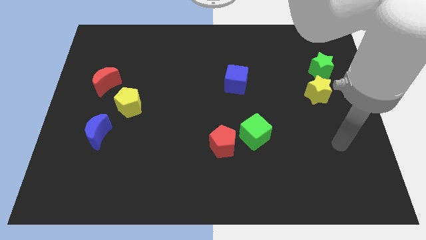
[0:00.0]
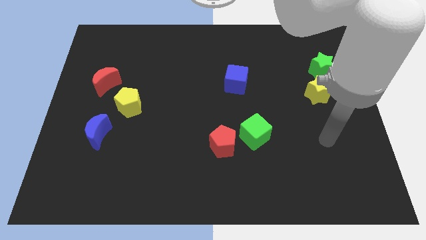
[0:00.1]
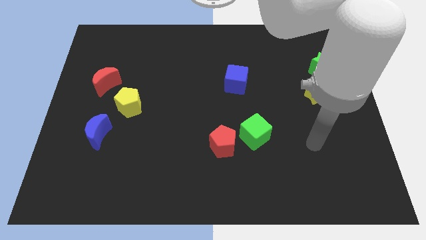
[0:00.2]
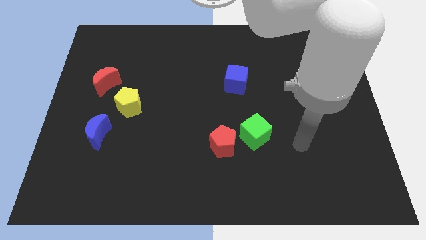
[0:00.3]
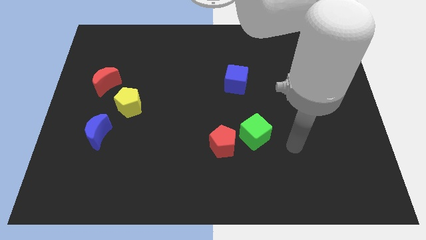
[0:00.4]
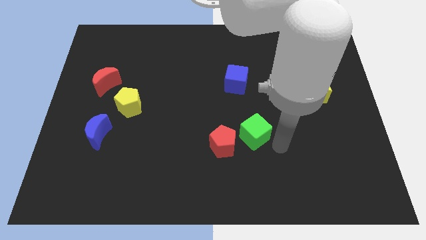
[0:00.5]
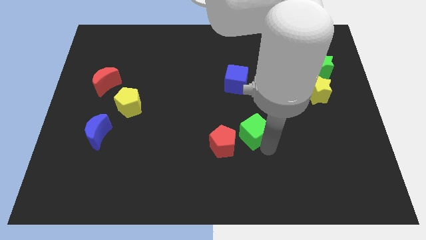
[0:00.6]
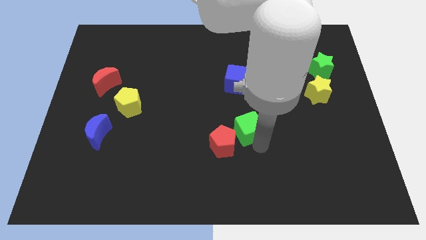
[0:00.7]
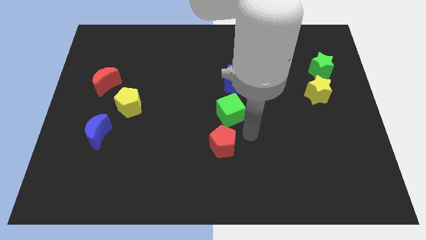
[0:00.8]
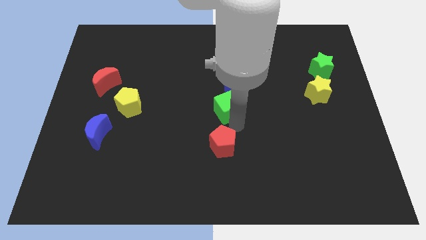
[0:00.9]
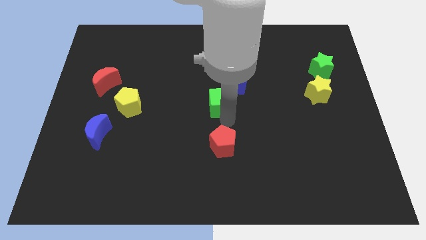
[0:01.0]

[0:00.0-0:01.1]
move the red pentagon away from the green cube

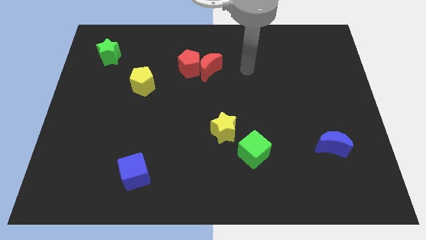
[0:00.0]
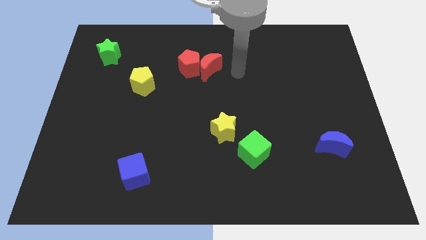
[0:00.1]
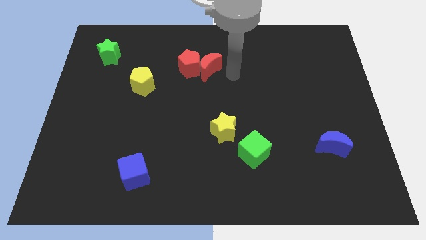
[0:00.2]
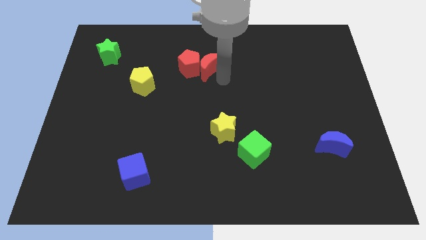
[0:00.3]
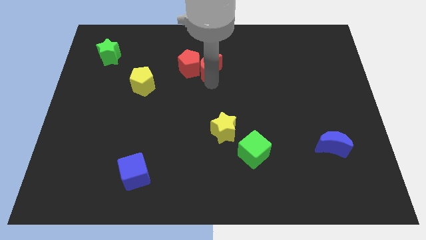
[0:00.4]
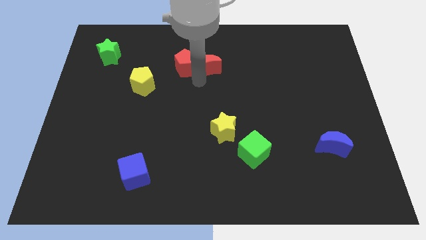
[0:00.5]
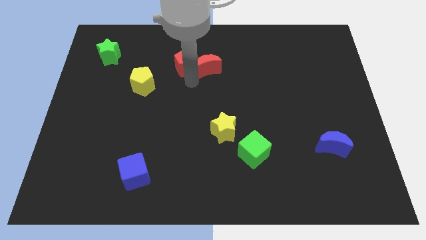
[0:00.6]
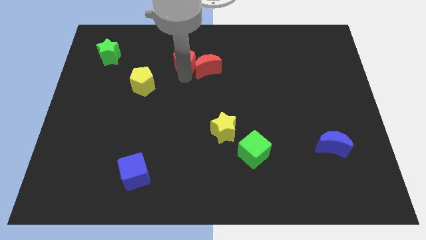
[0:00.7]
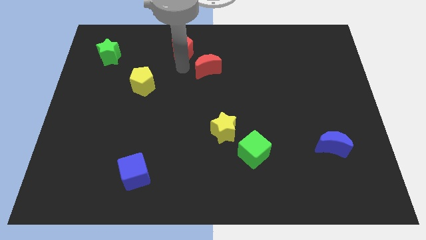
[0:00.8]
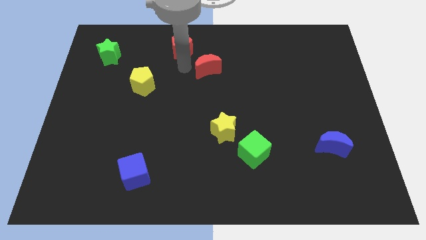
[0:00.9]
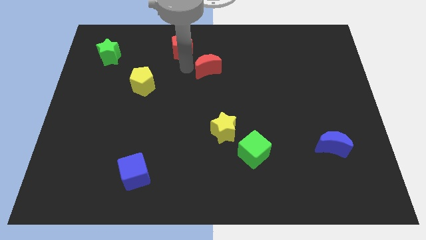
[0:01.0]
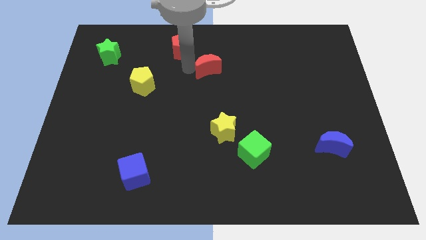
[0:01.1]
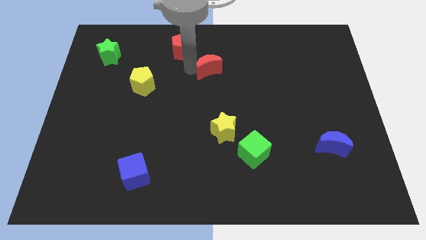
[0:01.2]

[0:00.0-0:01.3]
pull the red moon apart from the red pentagon

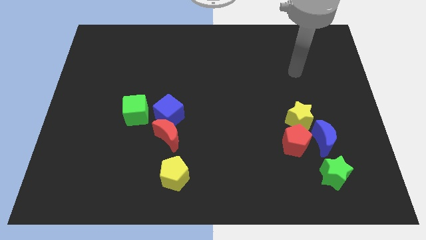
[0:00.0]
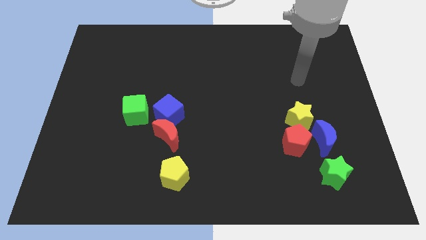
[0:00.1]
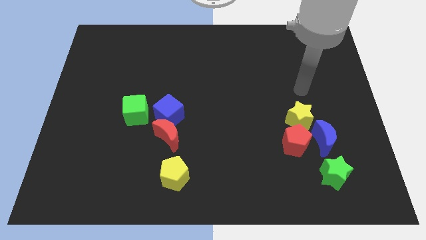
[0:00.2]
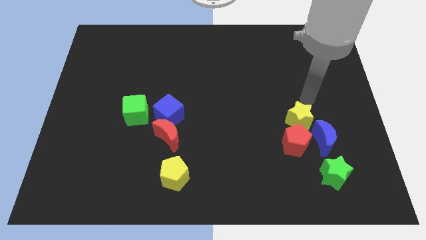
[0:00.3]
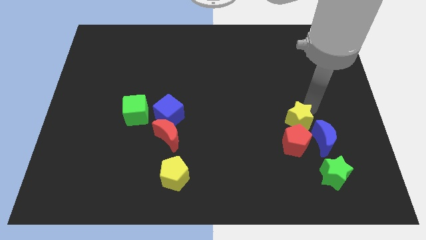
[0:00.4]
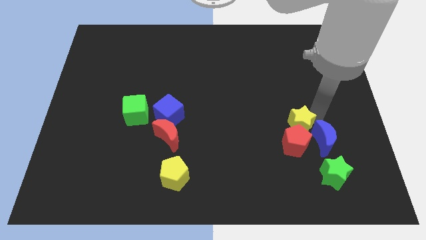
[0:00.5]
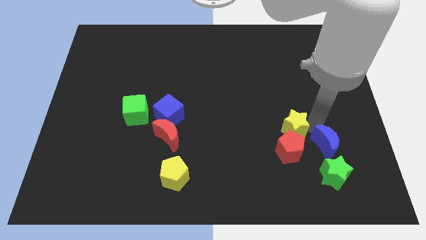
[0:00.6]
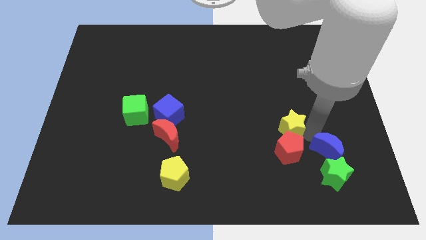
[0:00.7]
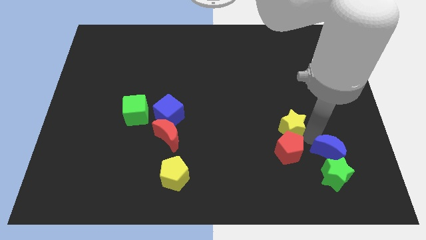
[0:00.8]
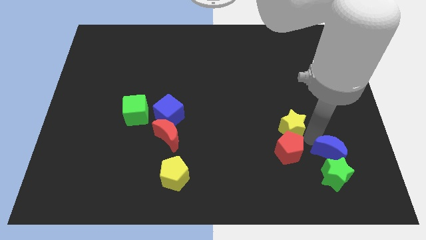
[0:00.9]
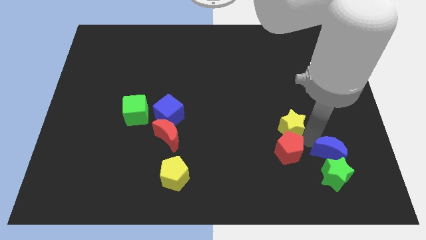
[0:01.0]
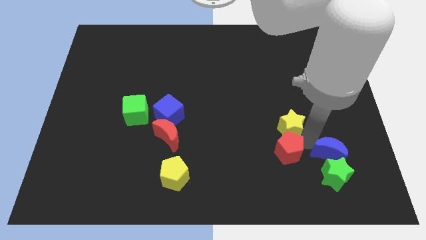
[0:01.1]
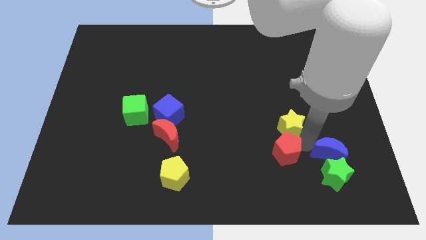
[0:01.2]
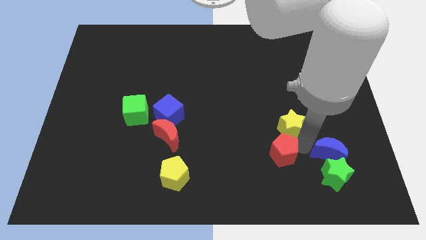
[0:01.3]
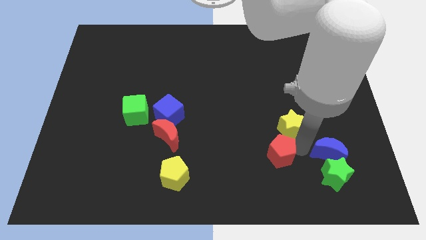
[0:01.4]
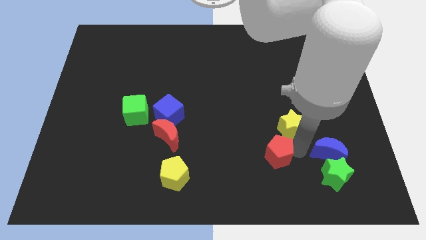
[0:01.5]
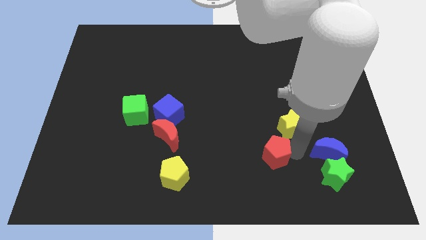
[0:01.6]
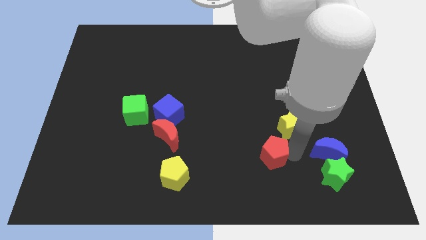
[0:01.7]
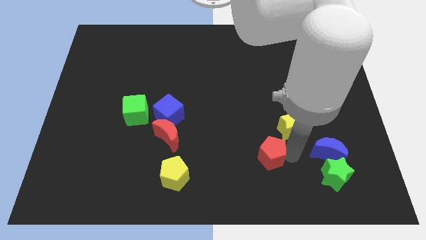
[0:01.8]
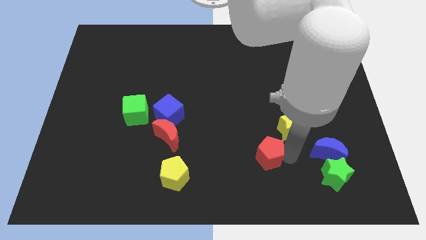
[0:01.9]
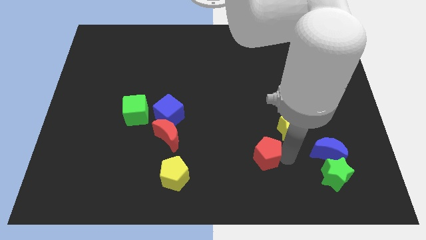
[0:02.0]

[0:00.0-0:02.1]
pull the red pentagon apart from the yellow star and blue moon

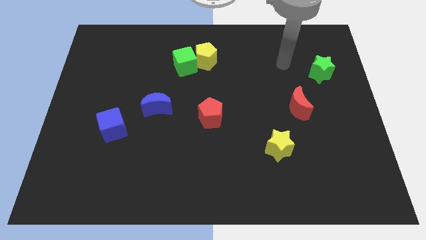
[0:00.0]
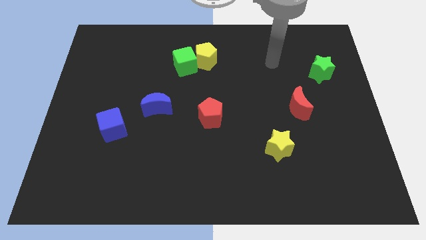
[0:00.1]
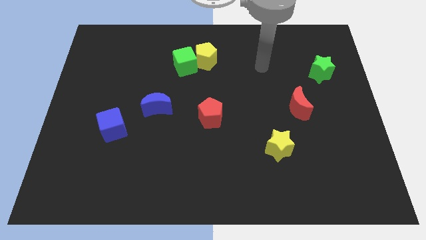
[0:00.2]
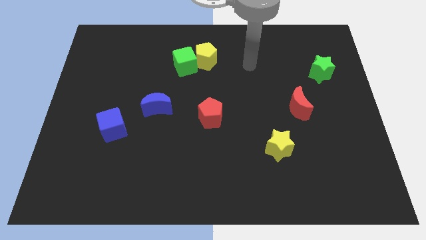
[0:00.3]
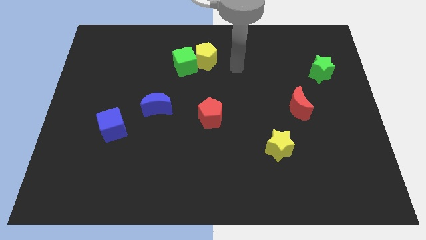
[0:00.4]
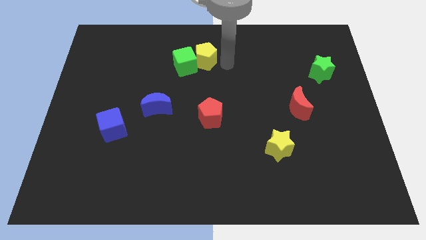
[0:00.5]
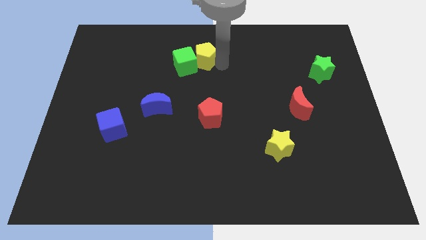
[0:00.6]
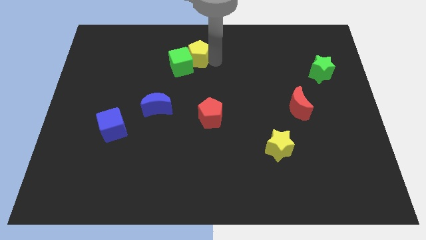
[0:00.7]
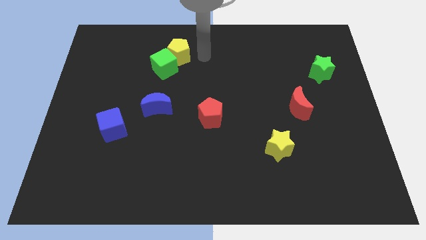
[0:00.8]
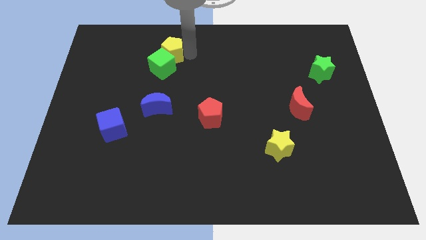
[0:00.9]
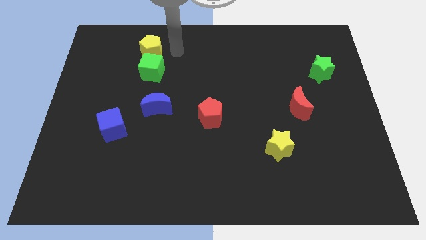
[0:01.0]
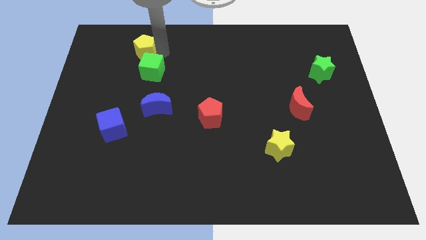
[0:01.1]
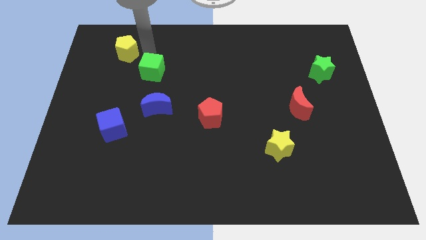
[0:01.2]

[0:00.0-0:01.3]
separate the green cube from the yellow pentagon

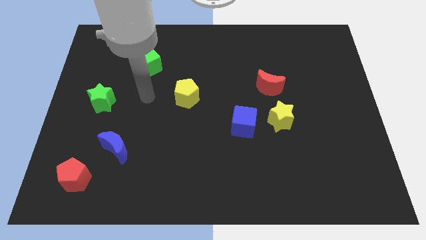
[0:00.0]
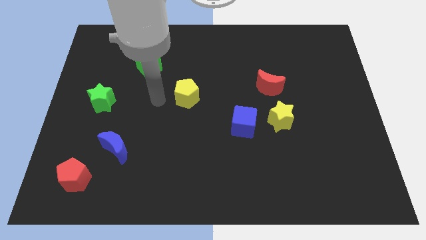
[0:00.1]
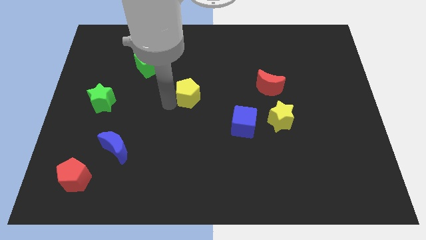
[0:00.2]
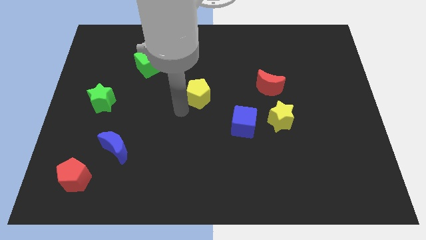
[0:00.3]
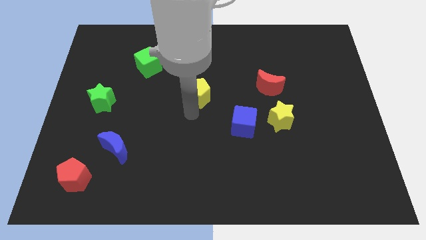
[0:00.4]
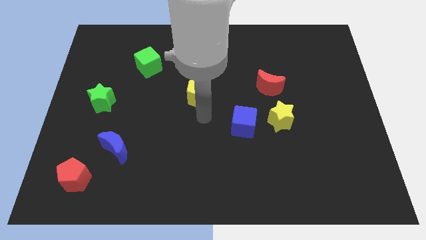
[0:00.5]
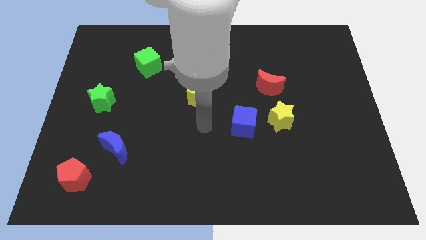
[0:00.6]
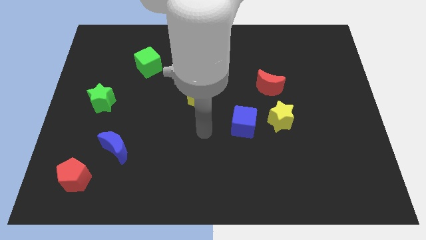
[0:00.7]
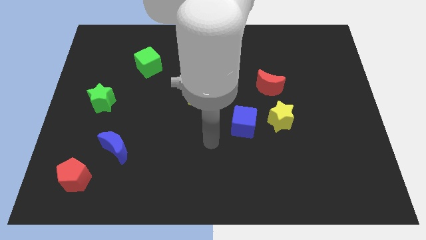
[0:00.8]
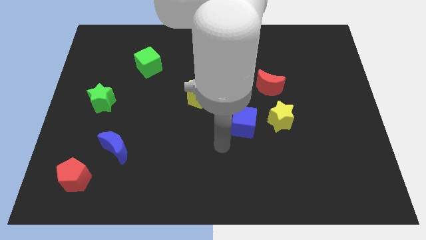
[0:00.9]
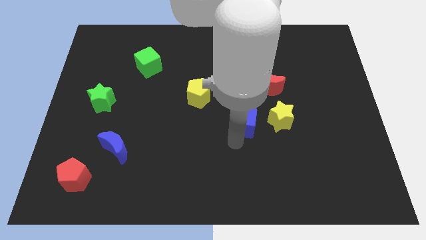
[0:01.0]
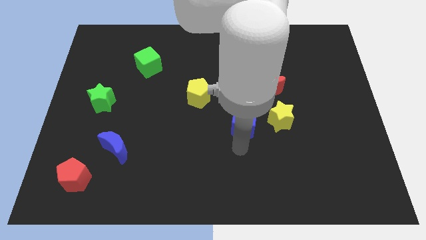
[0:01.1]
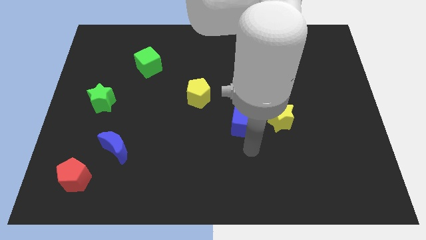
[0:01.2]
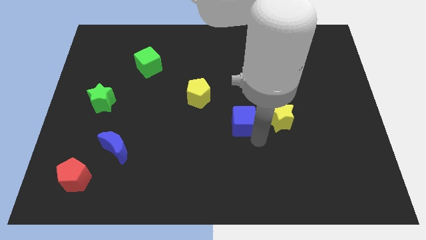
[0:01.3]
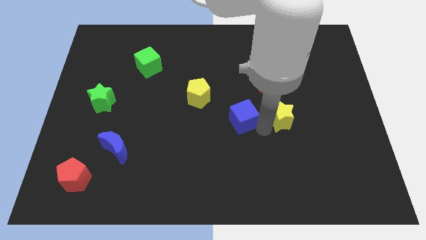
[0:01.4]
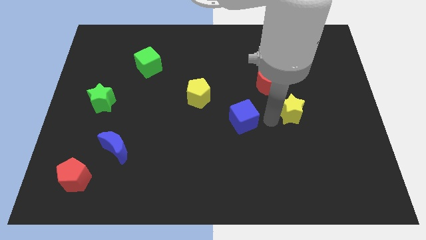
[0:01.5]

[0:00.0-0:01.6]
pull the blue cube apart from the yellow star

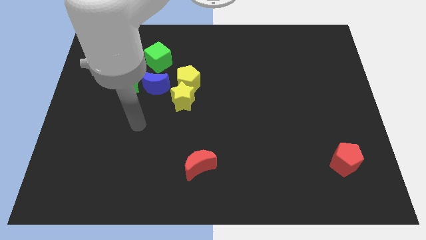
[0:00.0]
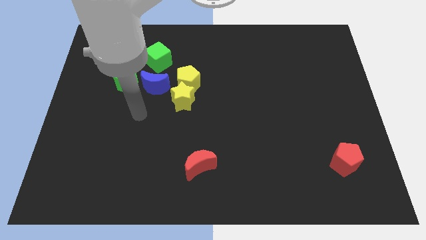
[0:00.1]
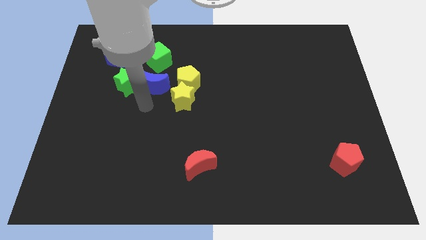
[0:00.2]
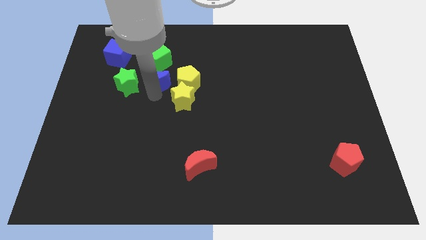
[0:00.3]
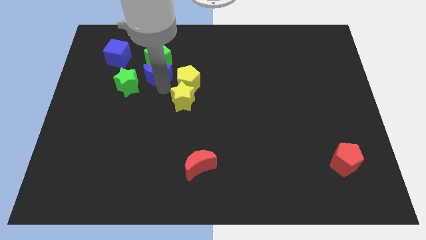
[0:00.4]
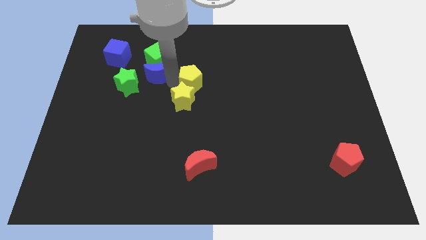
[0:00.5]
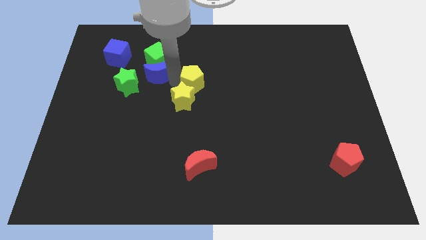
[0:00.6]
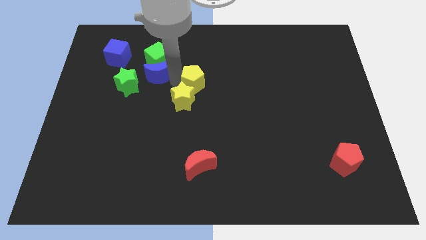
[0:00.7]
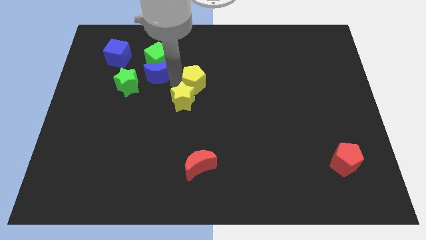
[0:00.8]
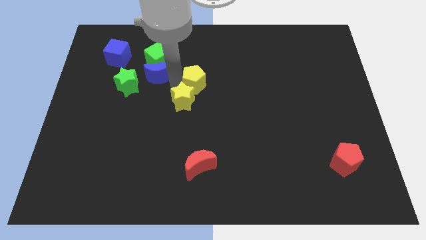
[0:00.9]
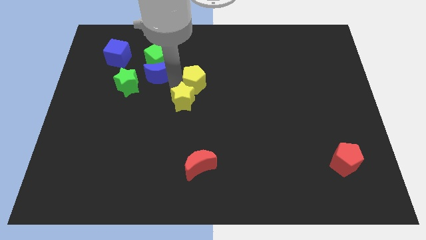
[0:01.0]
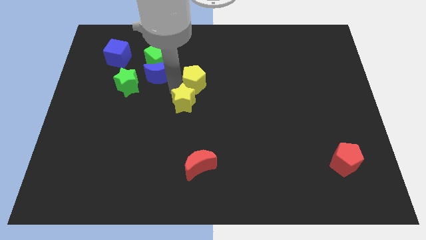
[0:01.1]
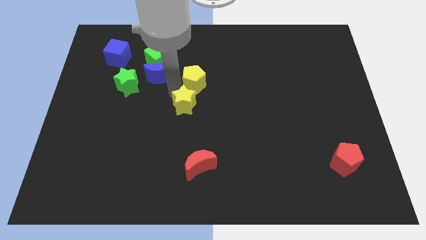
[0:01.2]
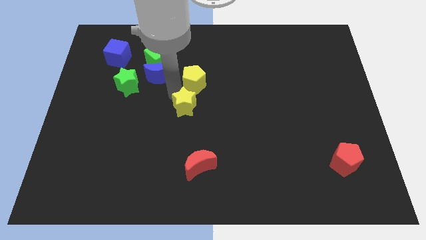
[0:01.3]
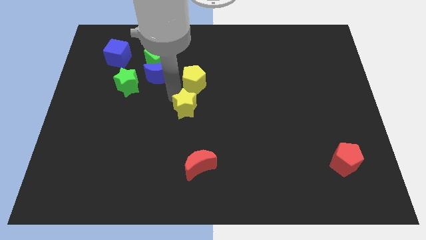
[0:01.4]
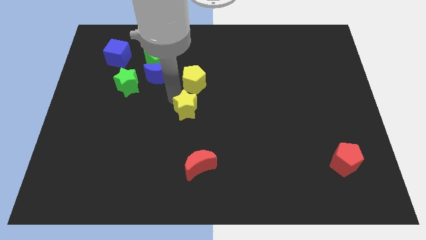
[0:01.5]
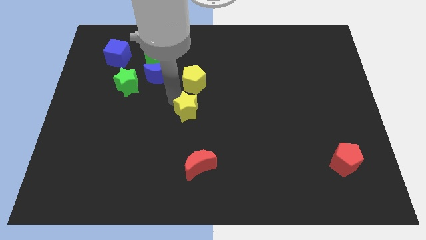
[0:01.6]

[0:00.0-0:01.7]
move the yellow star away from the yellow pentagon and blue moon

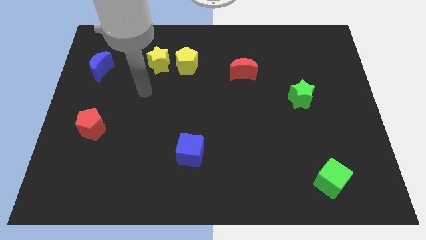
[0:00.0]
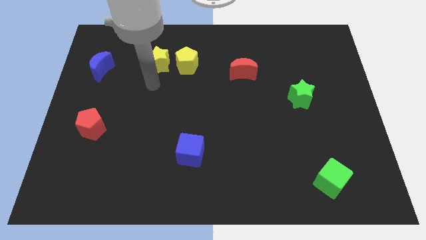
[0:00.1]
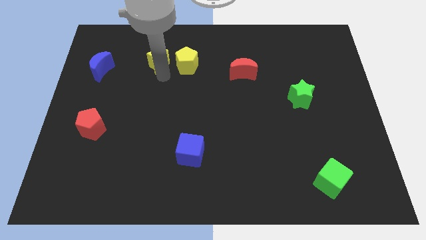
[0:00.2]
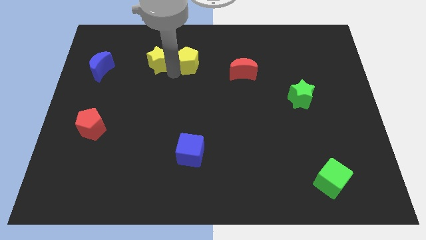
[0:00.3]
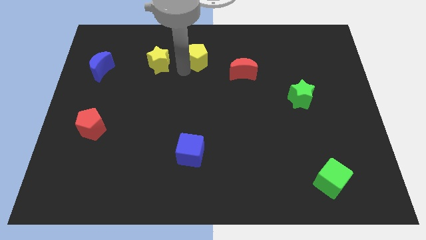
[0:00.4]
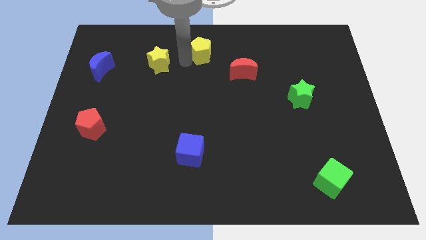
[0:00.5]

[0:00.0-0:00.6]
separate the yellow star from the yellow pentagon
